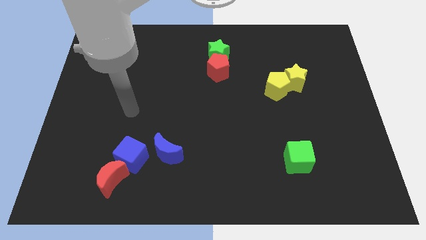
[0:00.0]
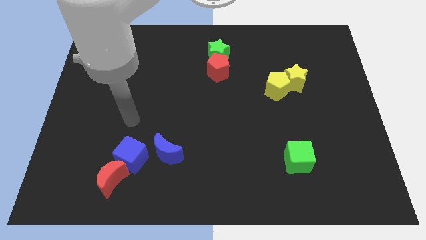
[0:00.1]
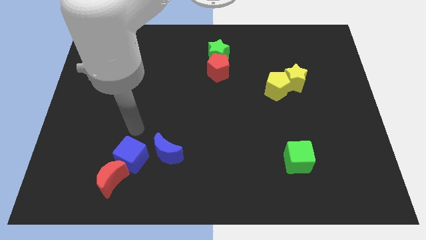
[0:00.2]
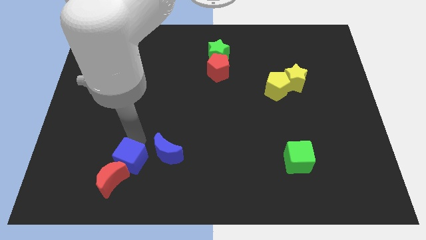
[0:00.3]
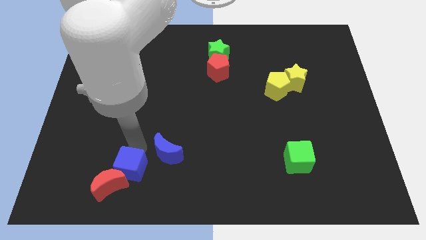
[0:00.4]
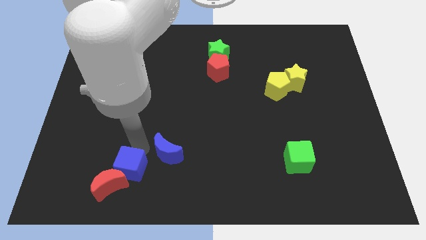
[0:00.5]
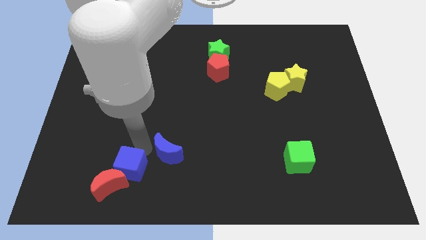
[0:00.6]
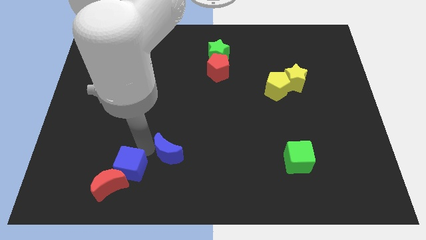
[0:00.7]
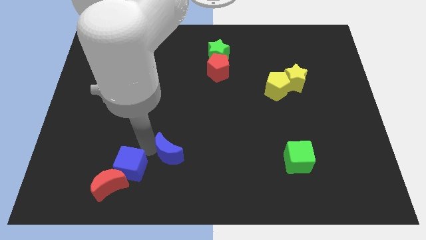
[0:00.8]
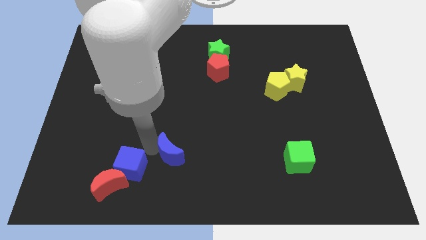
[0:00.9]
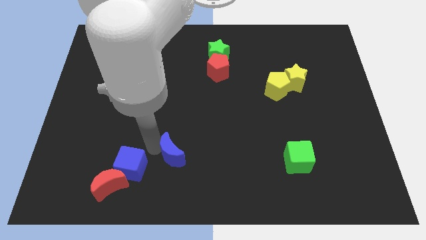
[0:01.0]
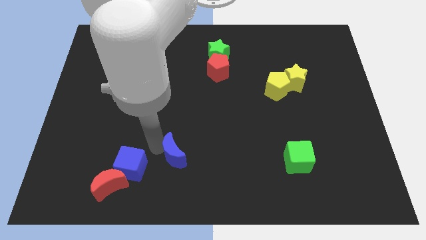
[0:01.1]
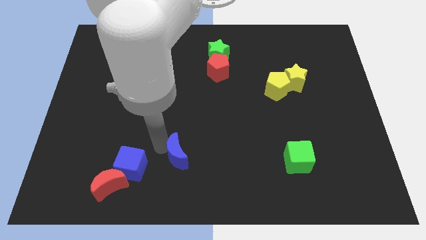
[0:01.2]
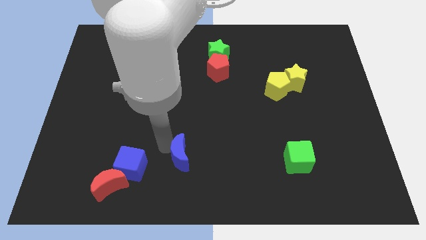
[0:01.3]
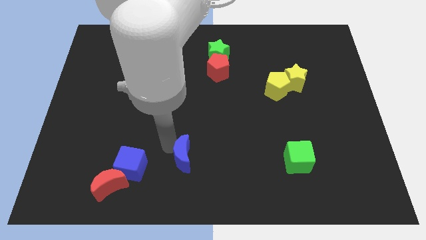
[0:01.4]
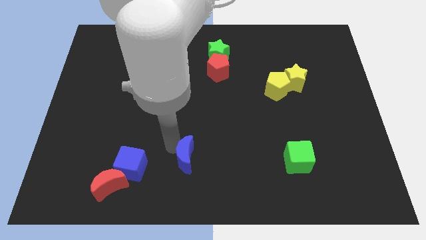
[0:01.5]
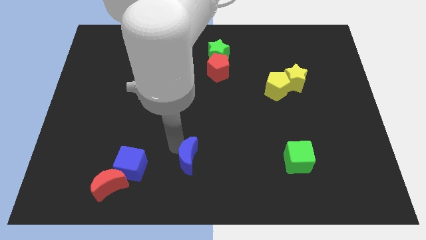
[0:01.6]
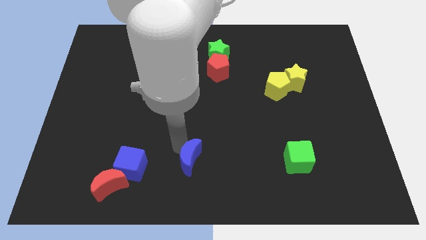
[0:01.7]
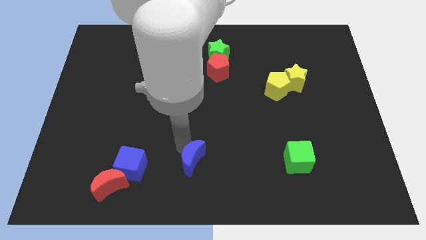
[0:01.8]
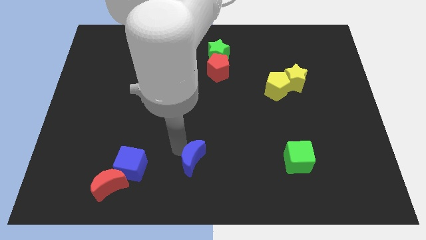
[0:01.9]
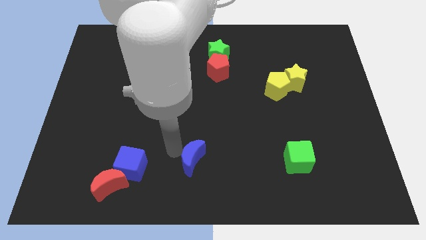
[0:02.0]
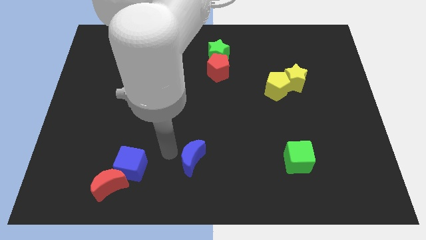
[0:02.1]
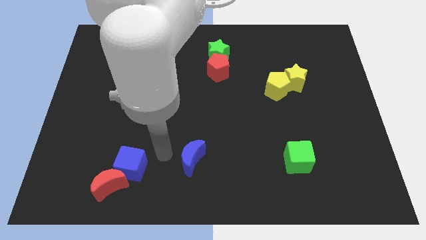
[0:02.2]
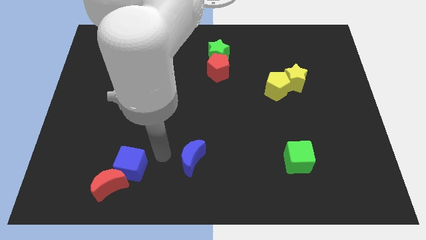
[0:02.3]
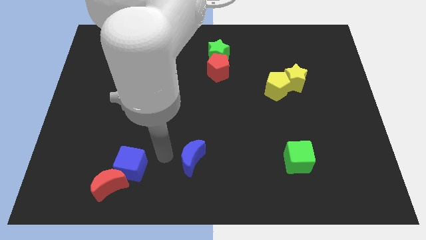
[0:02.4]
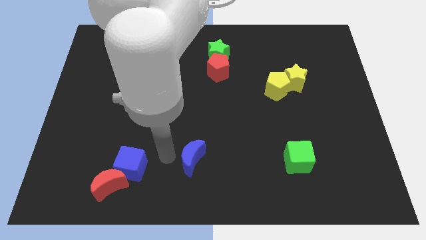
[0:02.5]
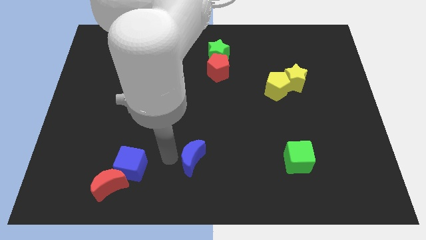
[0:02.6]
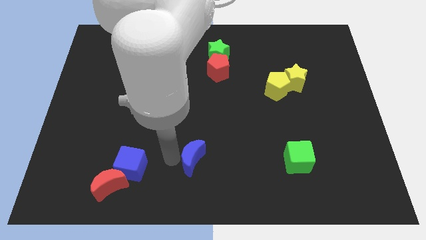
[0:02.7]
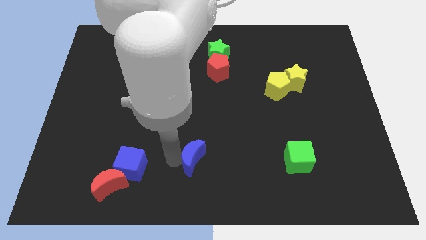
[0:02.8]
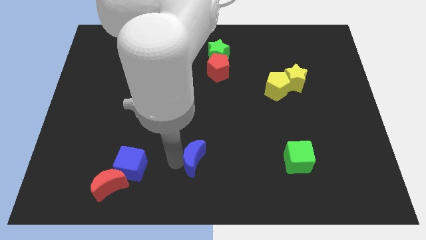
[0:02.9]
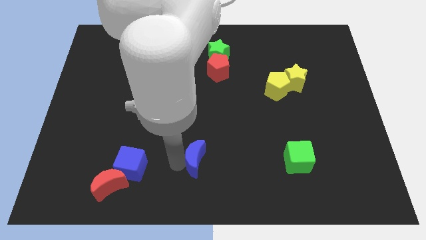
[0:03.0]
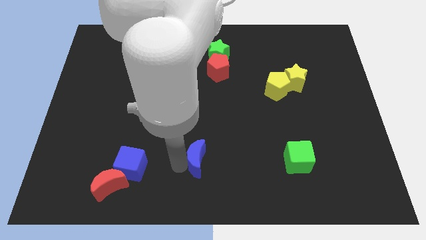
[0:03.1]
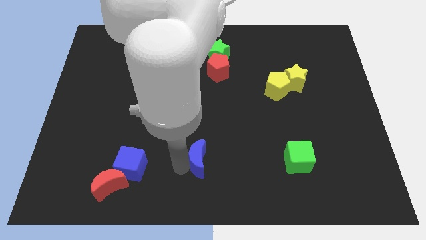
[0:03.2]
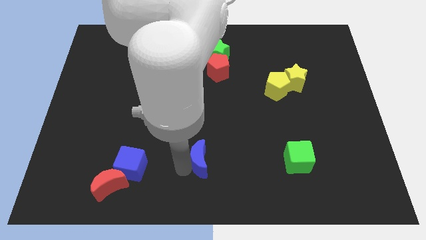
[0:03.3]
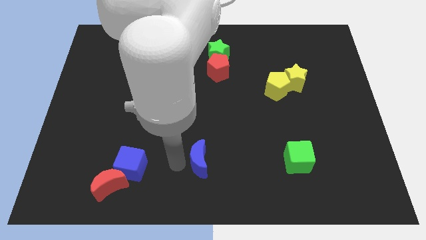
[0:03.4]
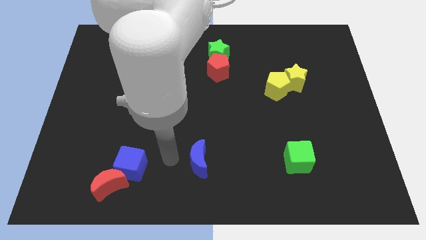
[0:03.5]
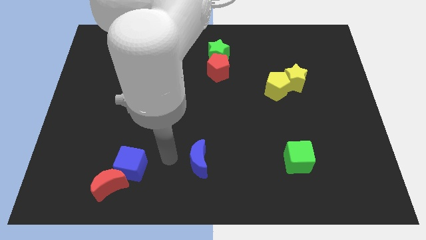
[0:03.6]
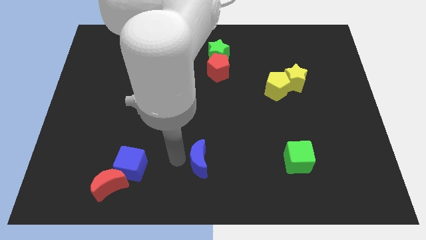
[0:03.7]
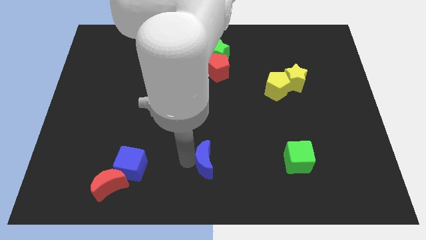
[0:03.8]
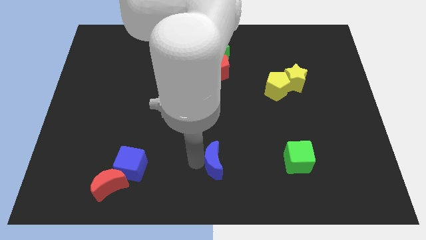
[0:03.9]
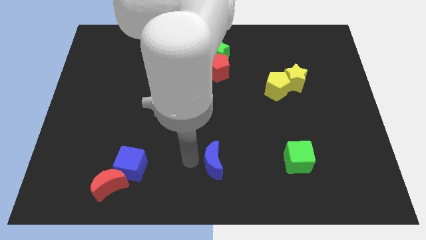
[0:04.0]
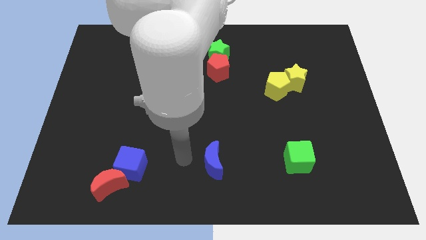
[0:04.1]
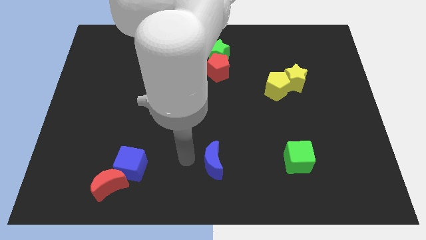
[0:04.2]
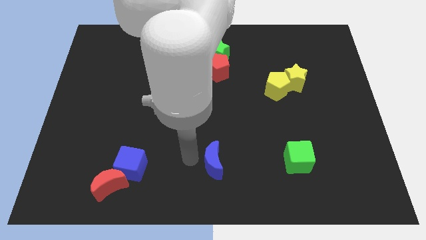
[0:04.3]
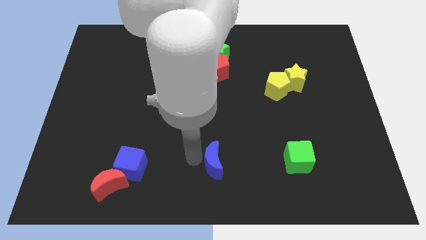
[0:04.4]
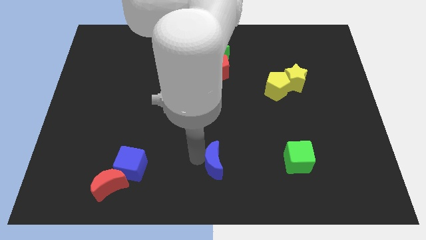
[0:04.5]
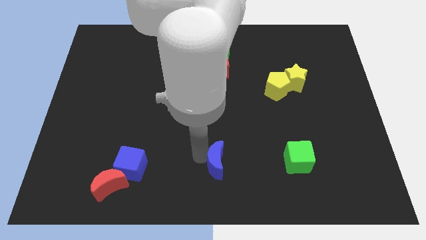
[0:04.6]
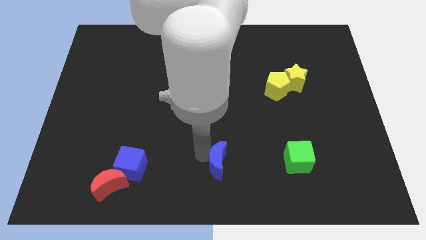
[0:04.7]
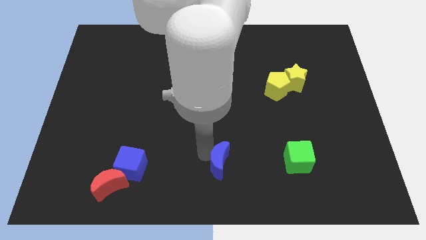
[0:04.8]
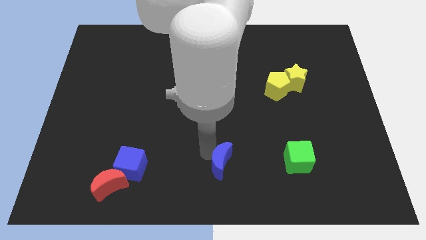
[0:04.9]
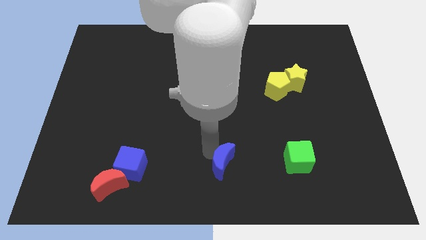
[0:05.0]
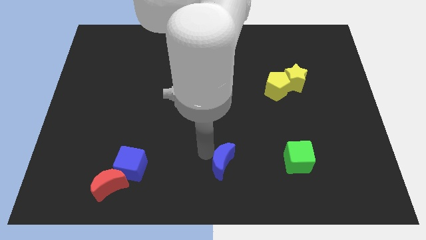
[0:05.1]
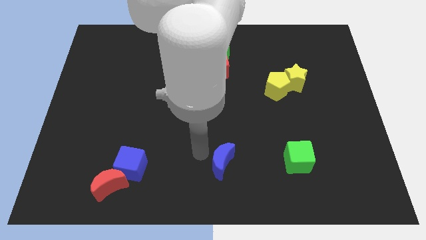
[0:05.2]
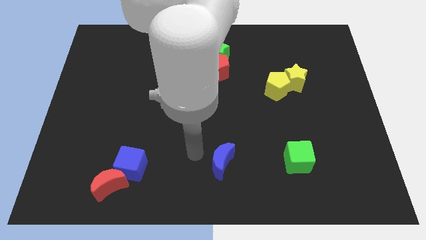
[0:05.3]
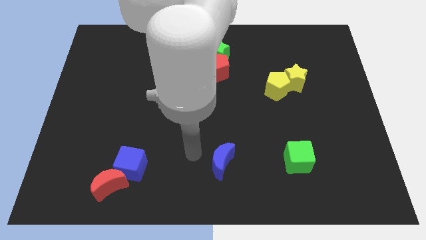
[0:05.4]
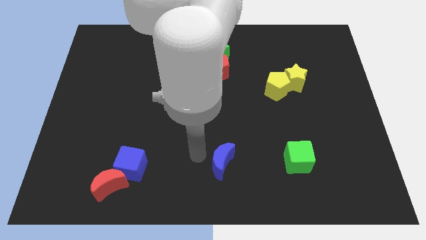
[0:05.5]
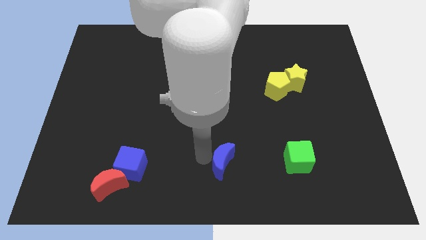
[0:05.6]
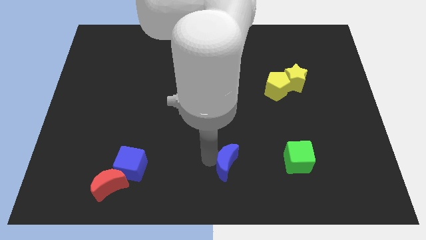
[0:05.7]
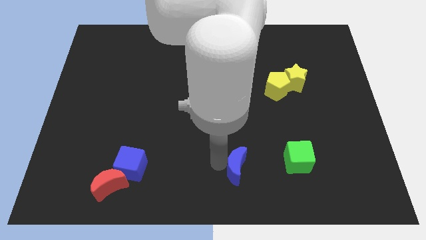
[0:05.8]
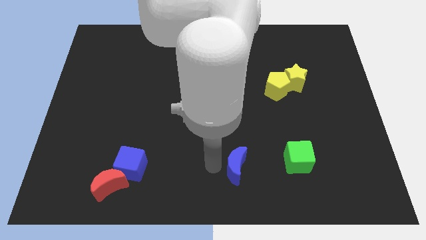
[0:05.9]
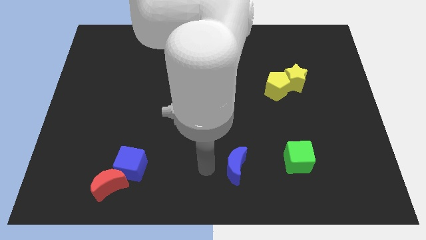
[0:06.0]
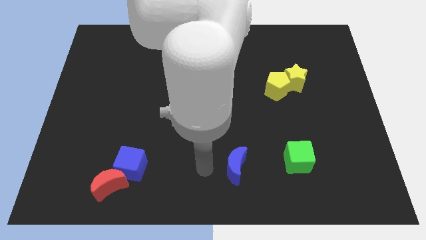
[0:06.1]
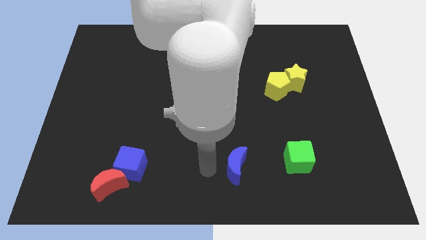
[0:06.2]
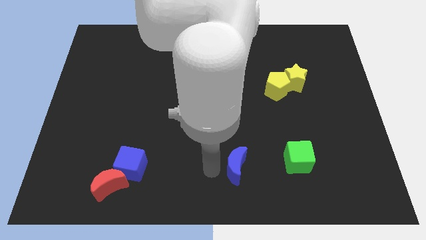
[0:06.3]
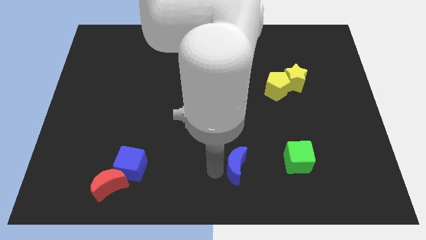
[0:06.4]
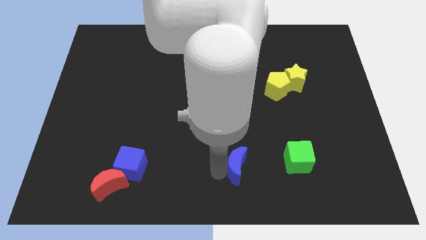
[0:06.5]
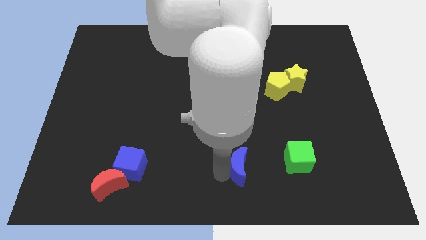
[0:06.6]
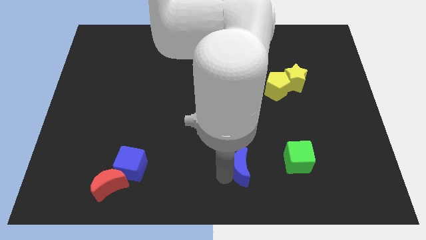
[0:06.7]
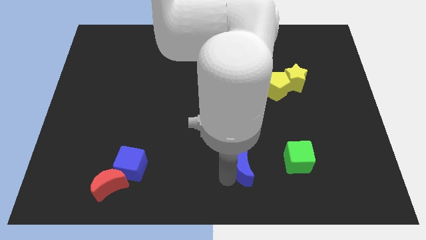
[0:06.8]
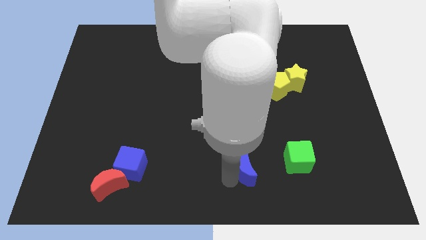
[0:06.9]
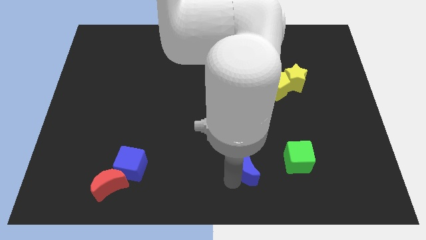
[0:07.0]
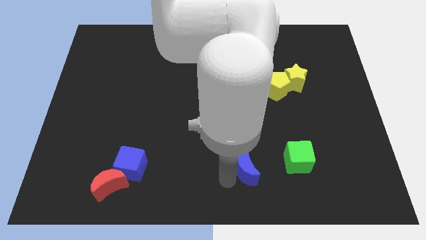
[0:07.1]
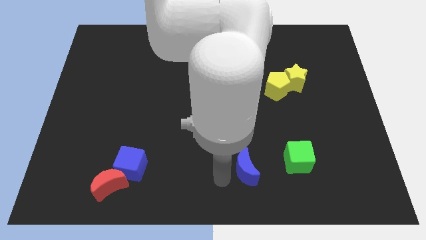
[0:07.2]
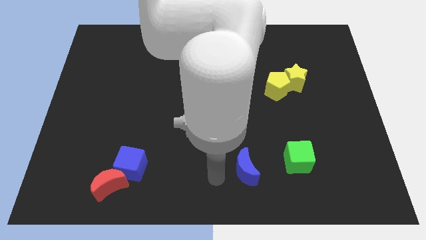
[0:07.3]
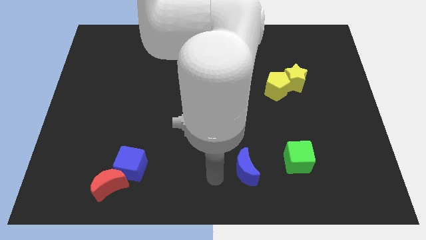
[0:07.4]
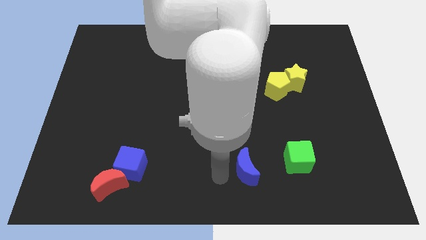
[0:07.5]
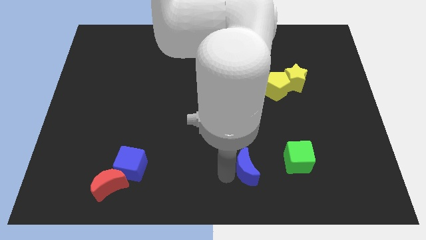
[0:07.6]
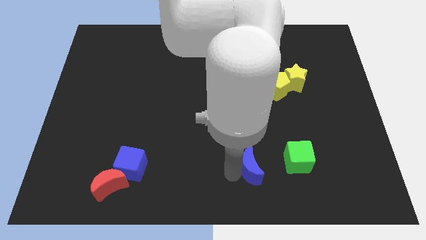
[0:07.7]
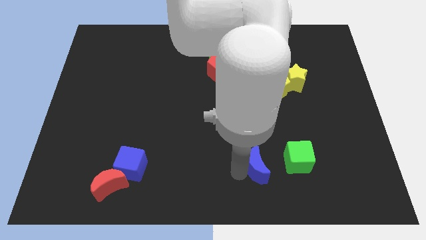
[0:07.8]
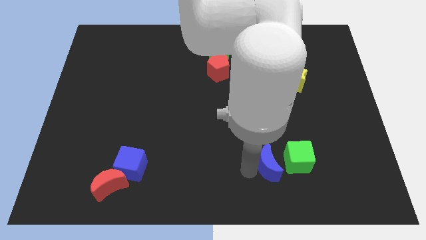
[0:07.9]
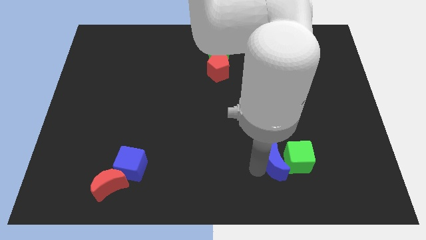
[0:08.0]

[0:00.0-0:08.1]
put the blue moon to the green cube
